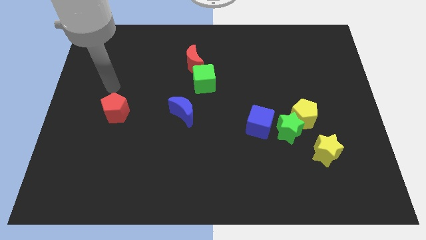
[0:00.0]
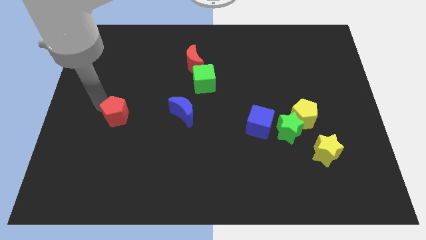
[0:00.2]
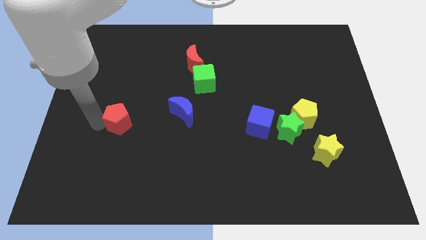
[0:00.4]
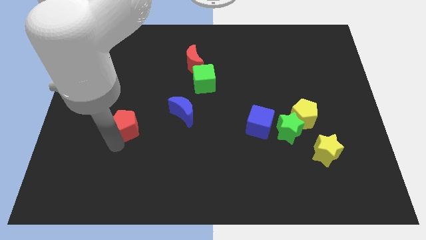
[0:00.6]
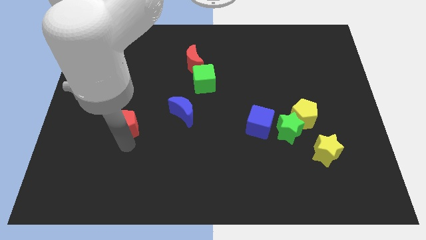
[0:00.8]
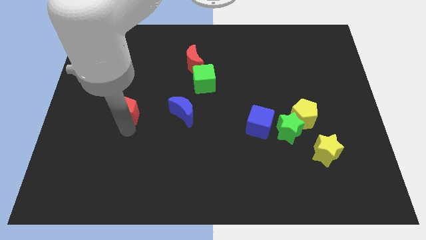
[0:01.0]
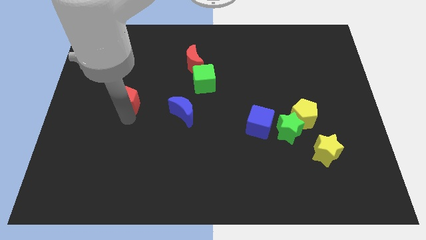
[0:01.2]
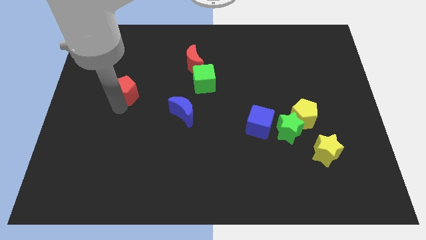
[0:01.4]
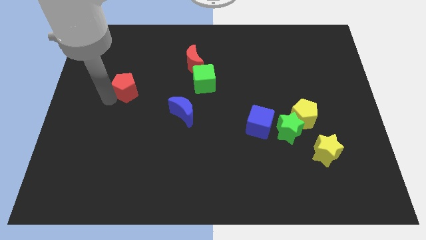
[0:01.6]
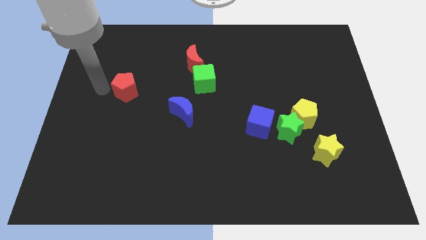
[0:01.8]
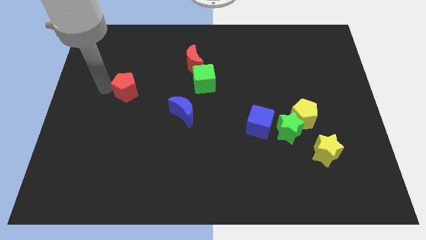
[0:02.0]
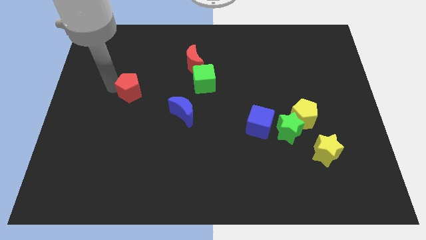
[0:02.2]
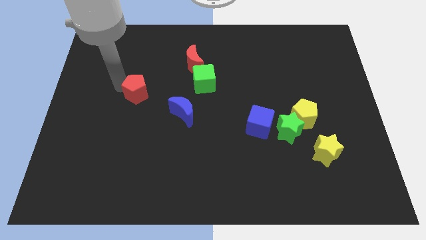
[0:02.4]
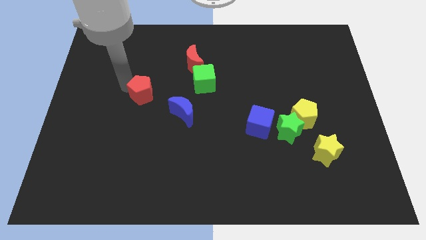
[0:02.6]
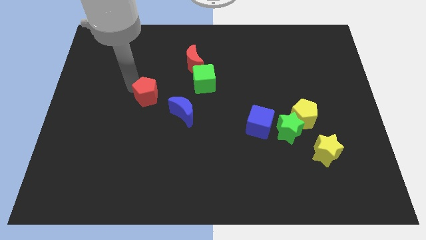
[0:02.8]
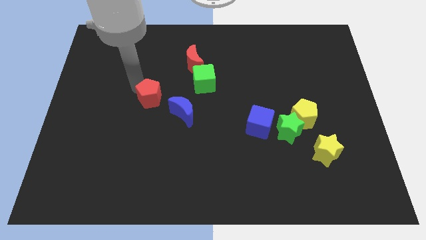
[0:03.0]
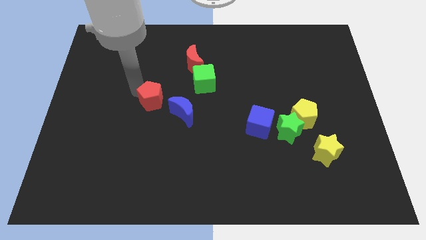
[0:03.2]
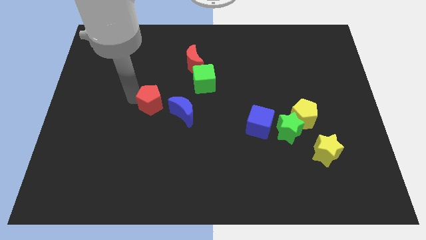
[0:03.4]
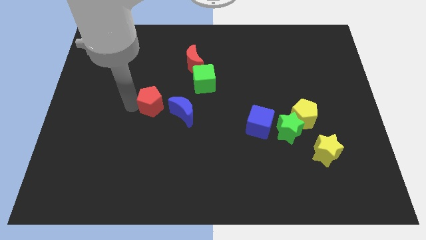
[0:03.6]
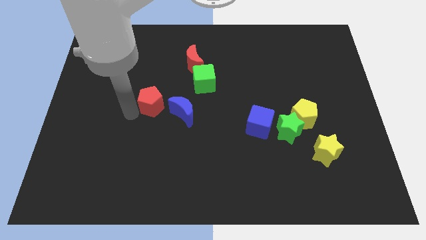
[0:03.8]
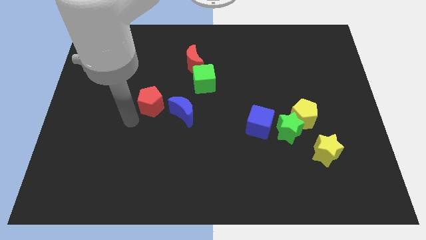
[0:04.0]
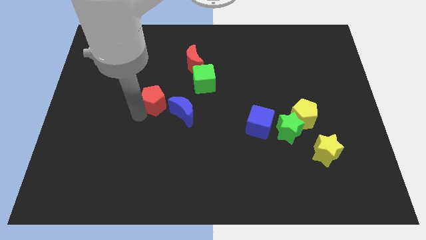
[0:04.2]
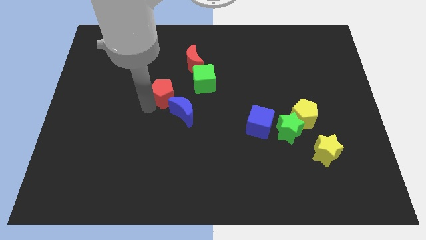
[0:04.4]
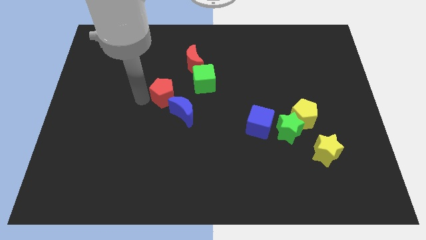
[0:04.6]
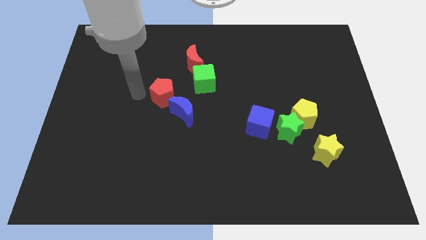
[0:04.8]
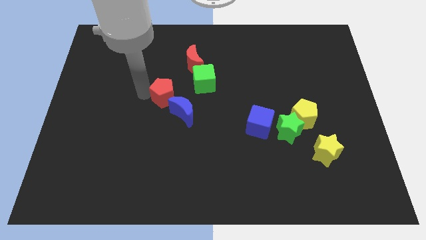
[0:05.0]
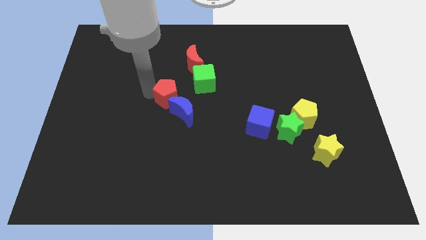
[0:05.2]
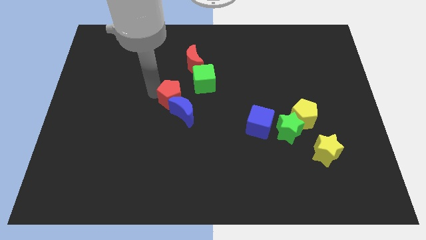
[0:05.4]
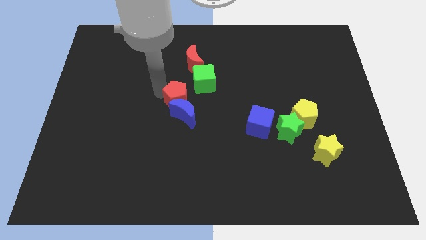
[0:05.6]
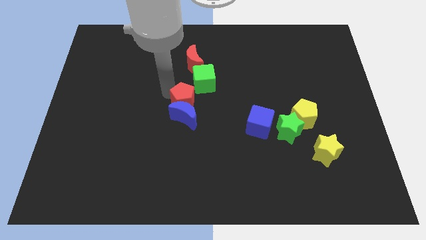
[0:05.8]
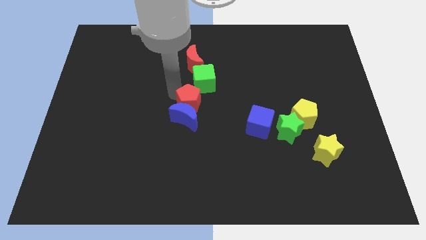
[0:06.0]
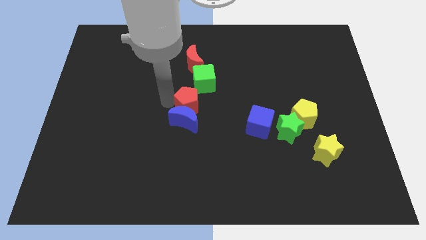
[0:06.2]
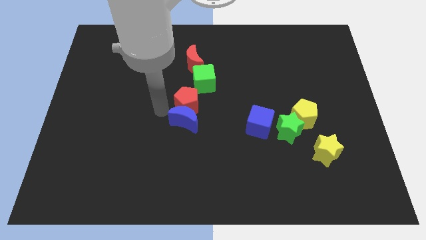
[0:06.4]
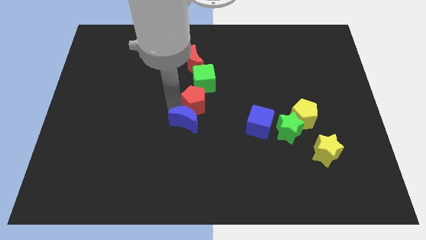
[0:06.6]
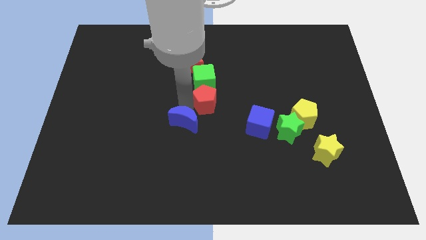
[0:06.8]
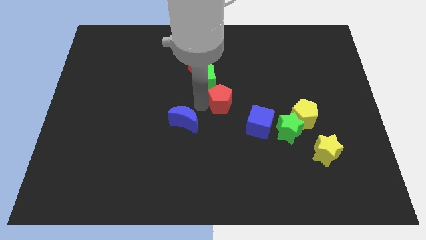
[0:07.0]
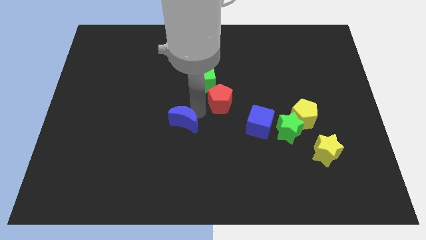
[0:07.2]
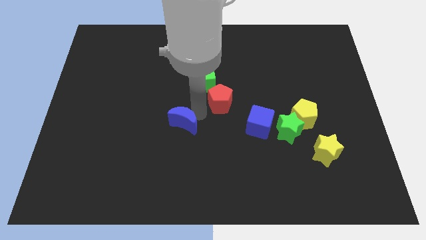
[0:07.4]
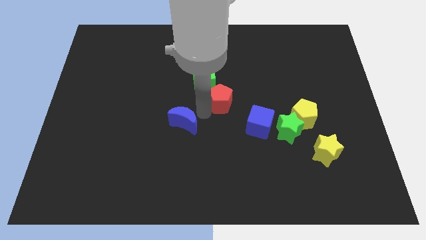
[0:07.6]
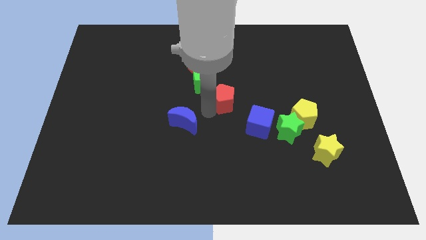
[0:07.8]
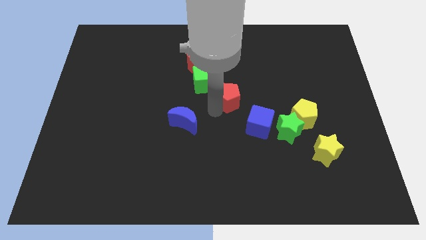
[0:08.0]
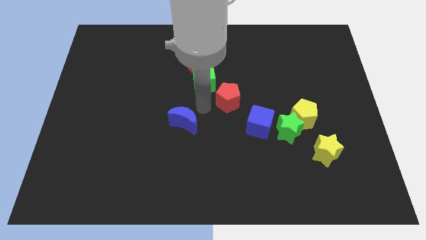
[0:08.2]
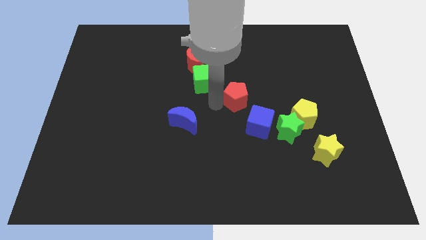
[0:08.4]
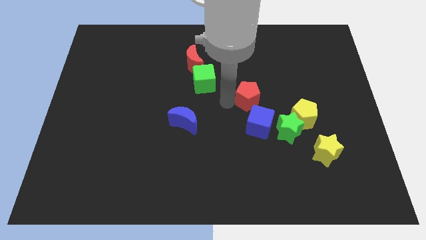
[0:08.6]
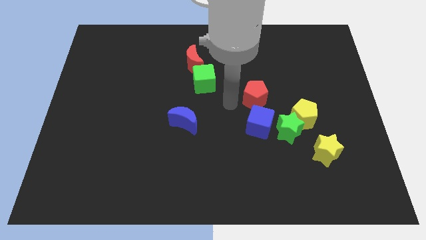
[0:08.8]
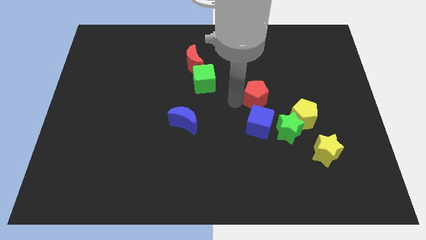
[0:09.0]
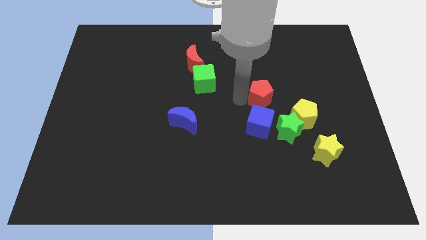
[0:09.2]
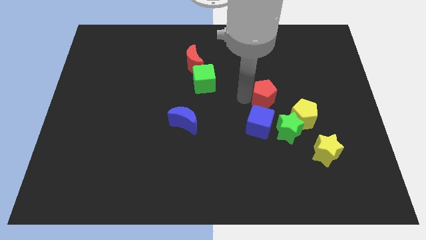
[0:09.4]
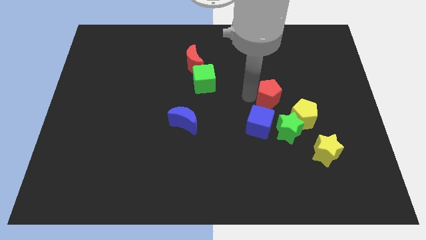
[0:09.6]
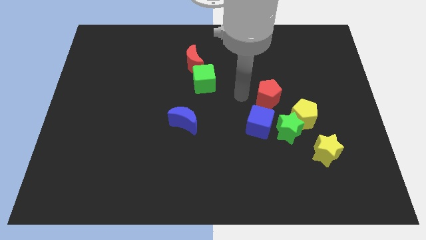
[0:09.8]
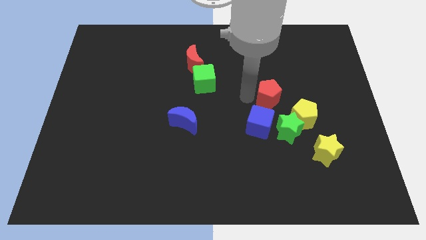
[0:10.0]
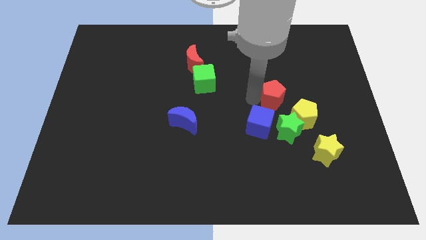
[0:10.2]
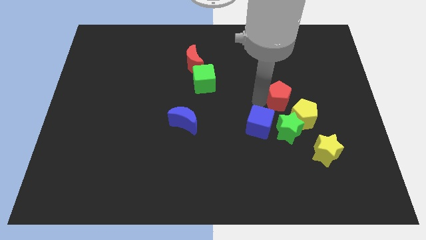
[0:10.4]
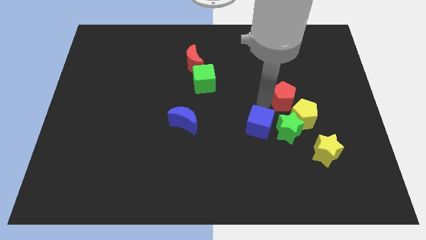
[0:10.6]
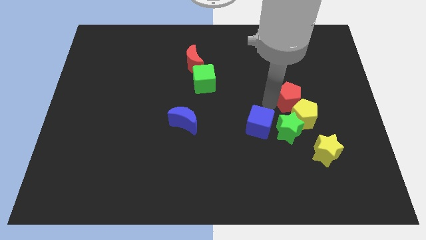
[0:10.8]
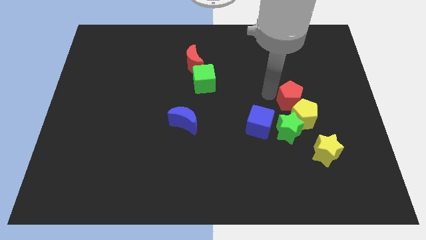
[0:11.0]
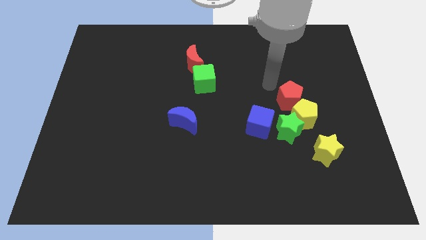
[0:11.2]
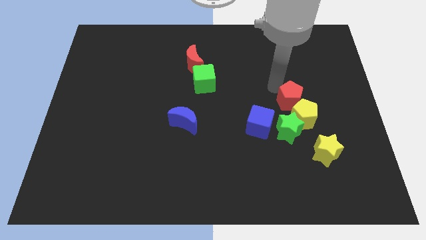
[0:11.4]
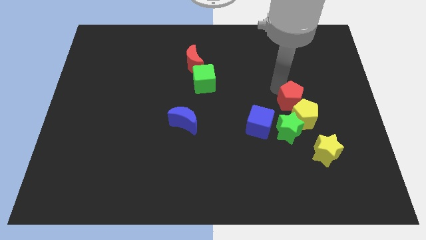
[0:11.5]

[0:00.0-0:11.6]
put the red pentagon to the top right side of the green star

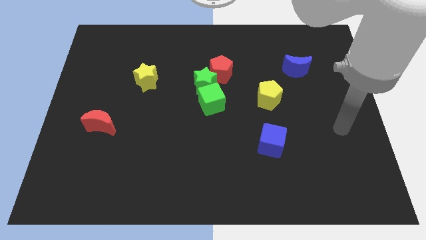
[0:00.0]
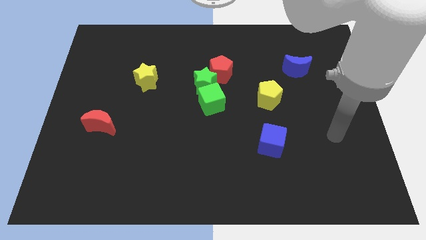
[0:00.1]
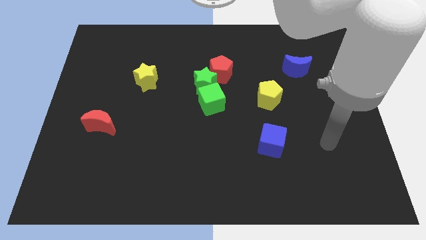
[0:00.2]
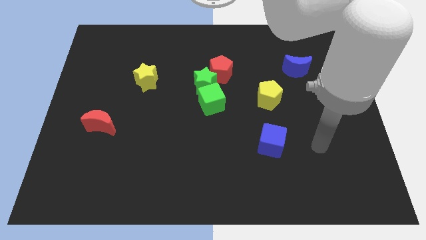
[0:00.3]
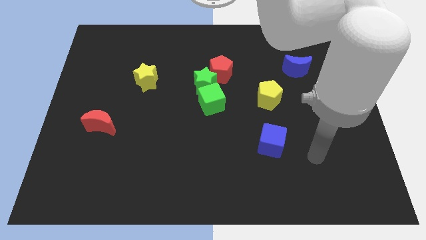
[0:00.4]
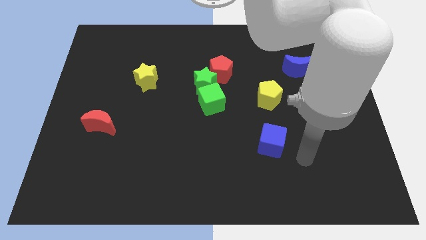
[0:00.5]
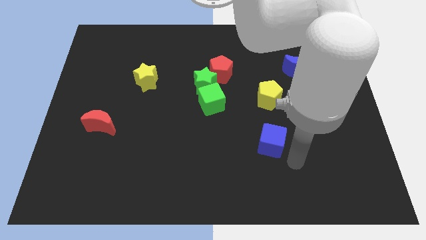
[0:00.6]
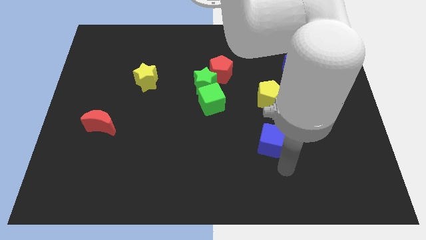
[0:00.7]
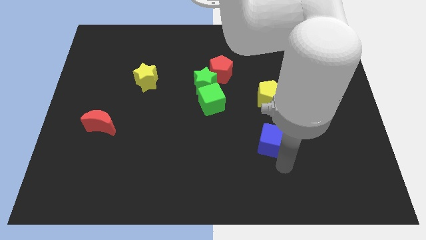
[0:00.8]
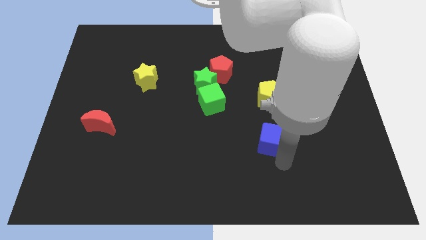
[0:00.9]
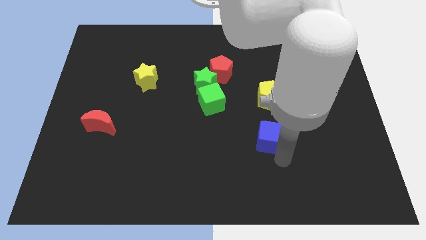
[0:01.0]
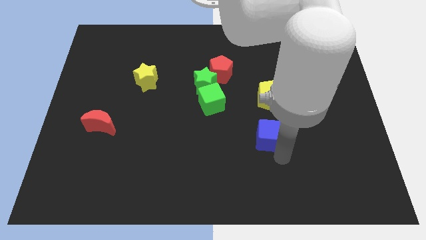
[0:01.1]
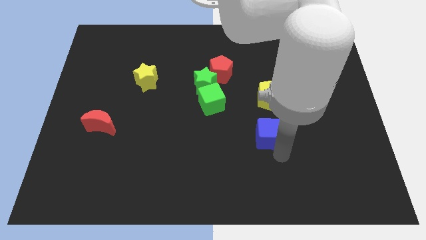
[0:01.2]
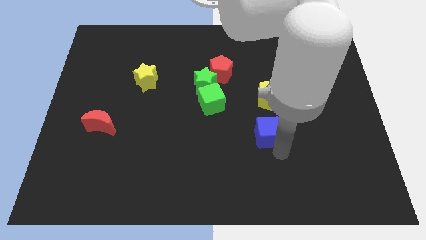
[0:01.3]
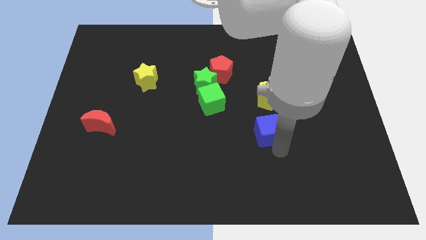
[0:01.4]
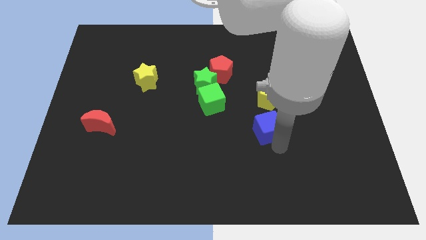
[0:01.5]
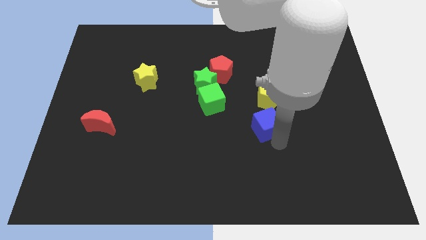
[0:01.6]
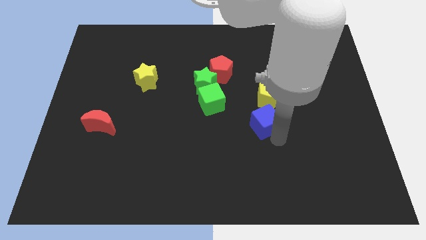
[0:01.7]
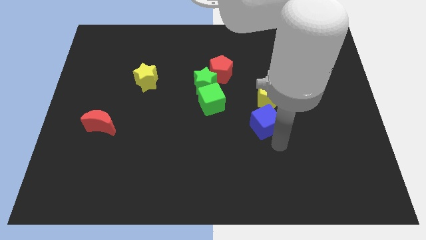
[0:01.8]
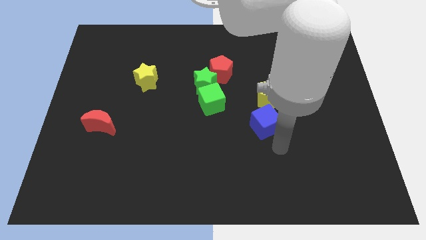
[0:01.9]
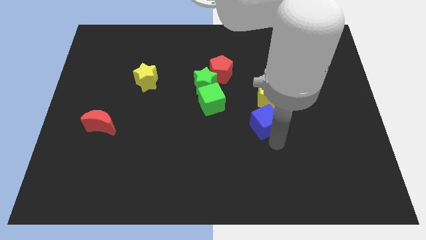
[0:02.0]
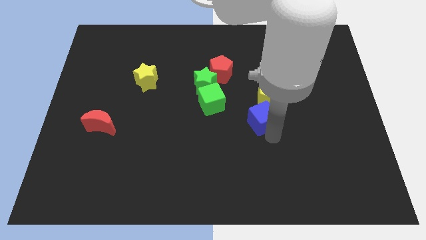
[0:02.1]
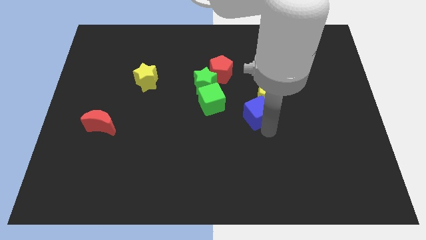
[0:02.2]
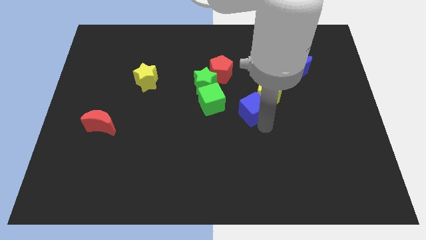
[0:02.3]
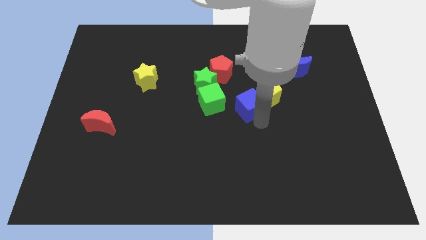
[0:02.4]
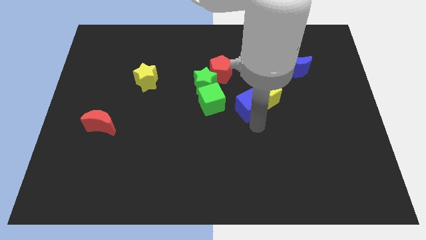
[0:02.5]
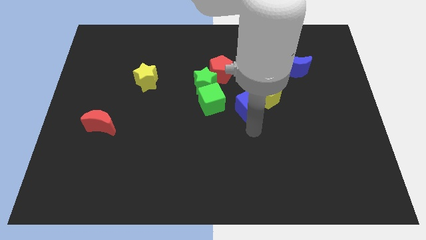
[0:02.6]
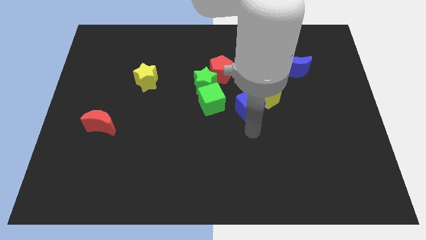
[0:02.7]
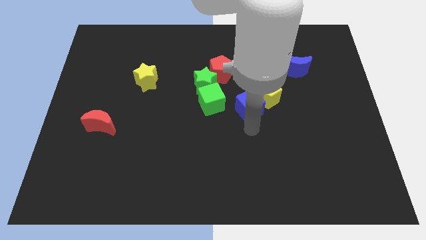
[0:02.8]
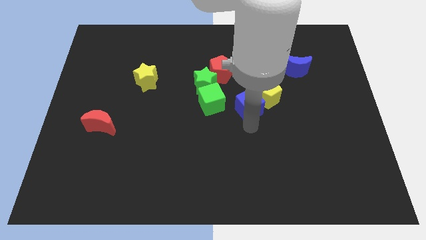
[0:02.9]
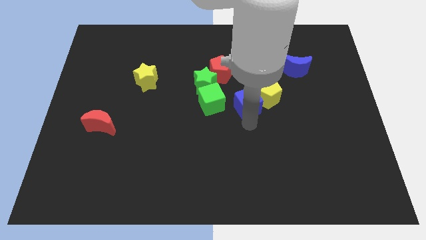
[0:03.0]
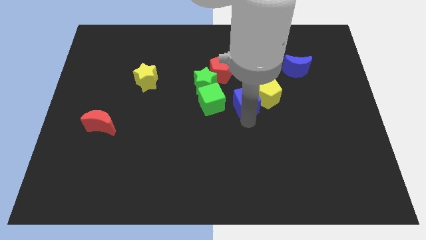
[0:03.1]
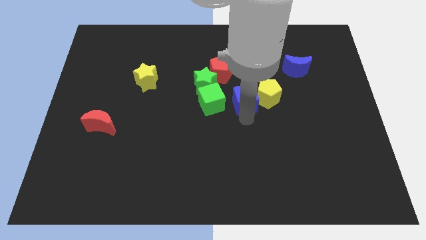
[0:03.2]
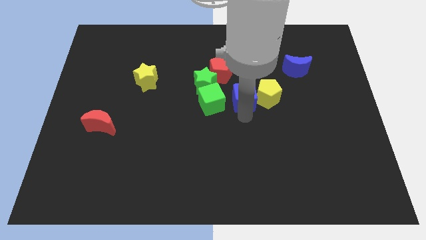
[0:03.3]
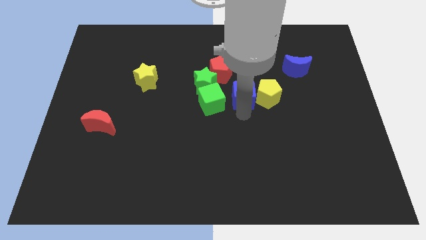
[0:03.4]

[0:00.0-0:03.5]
move the blue cube just right of the green star
